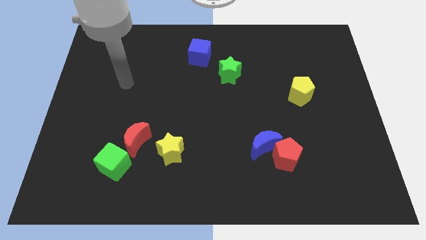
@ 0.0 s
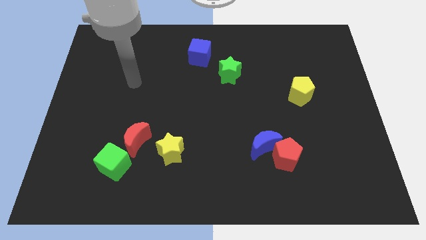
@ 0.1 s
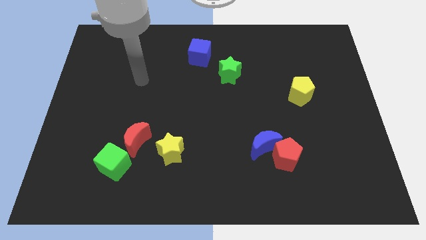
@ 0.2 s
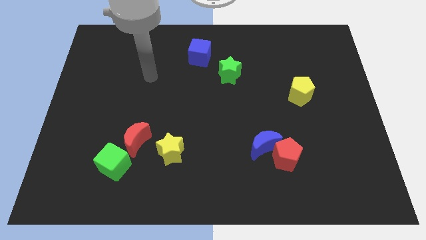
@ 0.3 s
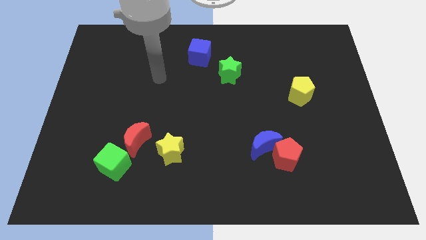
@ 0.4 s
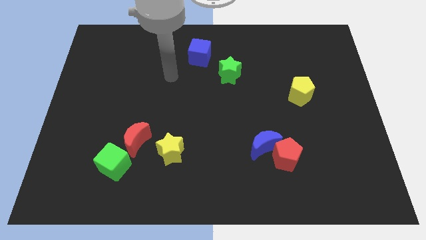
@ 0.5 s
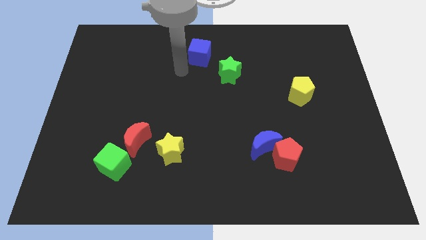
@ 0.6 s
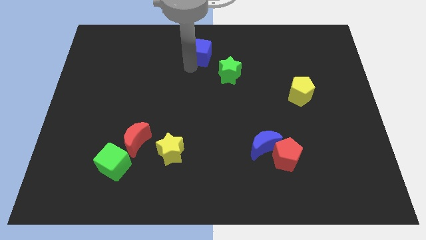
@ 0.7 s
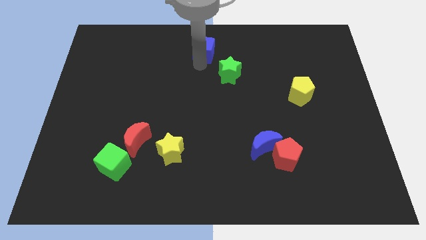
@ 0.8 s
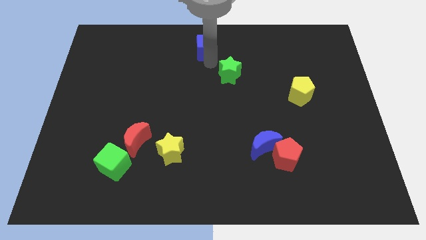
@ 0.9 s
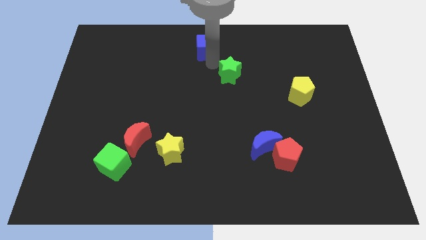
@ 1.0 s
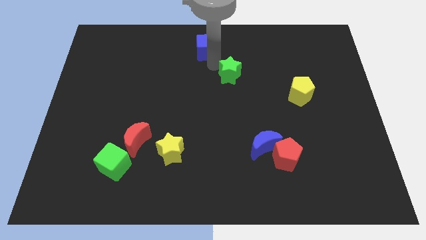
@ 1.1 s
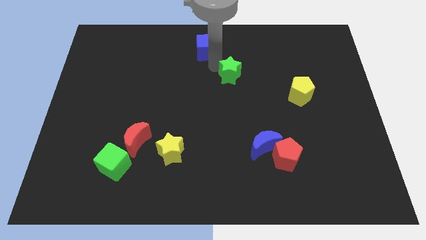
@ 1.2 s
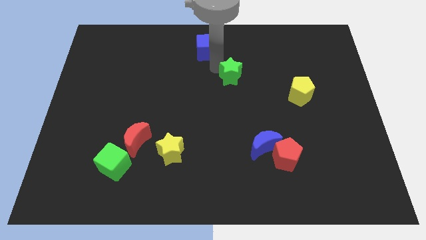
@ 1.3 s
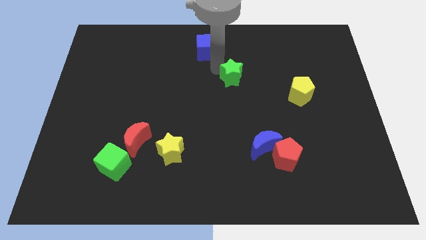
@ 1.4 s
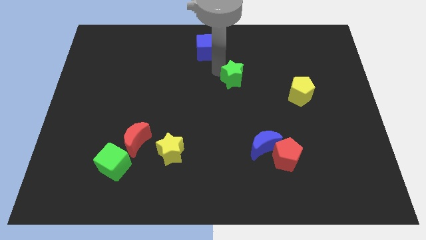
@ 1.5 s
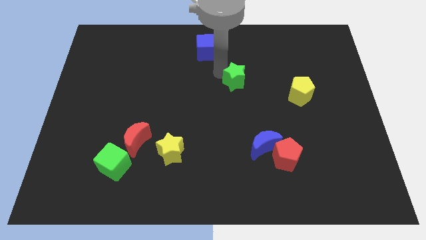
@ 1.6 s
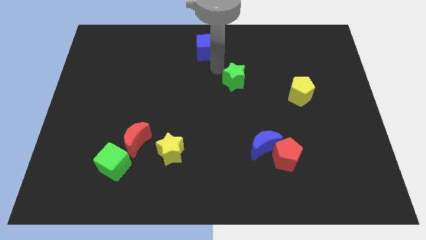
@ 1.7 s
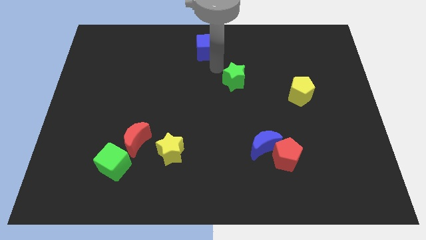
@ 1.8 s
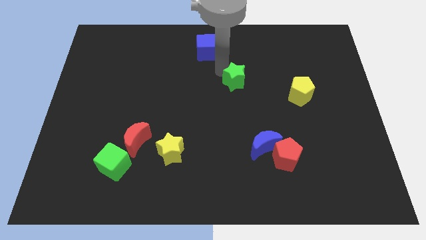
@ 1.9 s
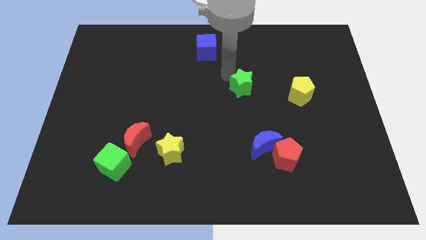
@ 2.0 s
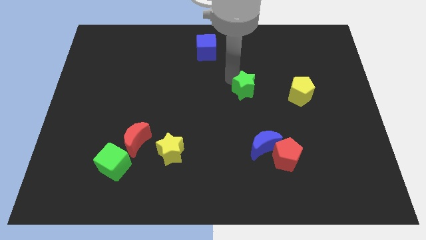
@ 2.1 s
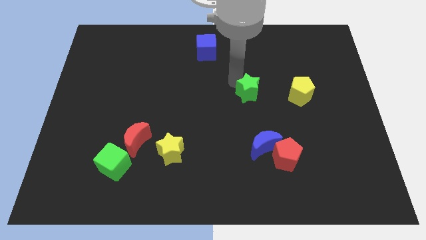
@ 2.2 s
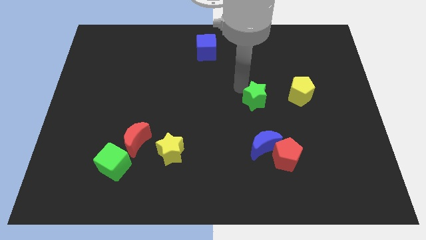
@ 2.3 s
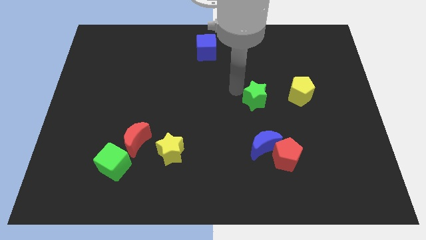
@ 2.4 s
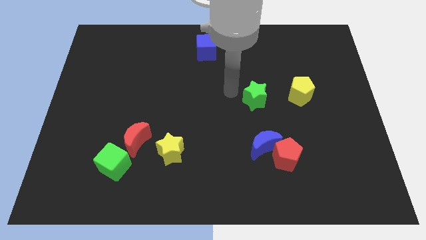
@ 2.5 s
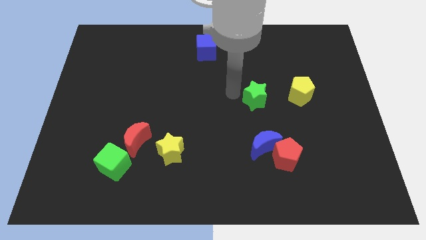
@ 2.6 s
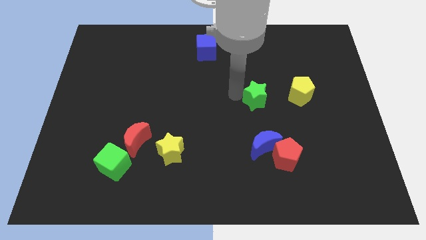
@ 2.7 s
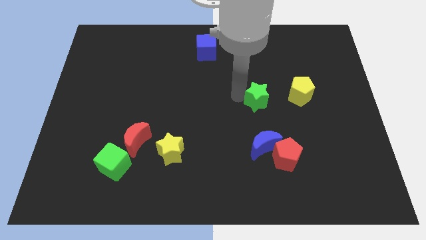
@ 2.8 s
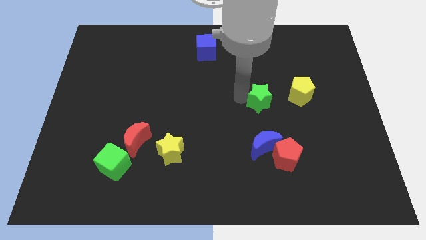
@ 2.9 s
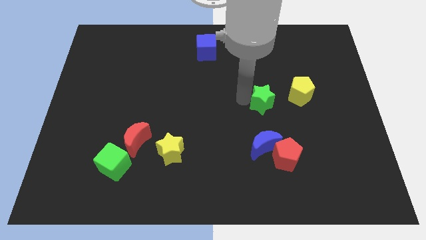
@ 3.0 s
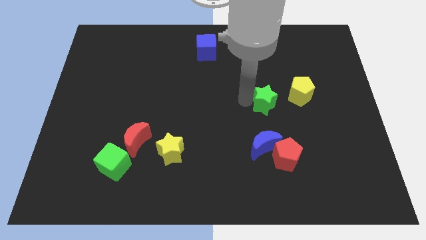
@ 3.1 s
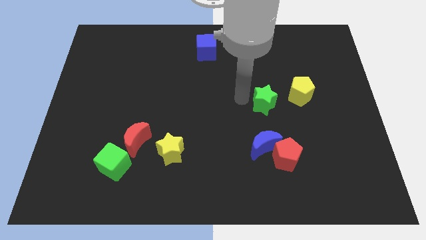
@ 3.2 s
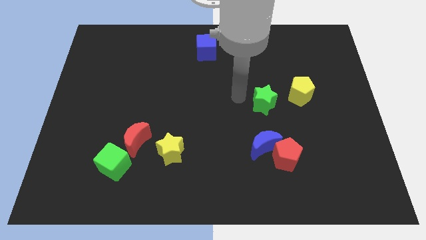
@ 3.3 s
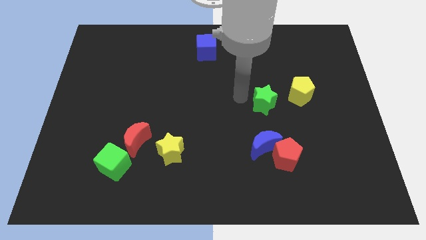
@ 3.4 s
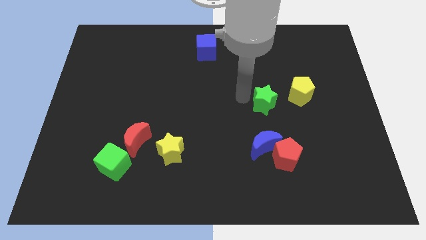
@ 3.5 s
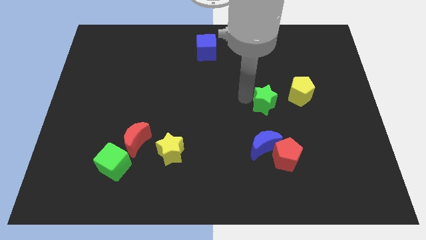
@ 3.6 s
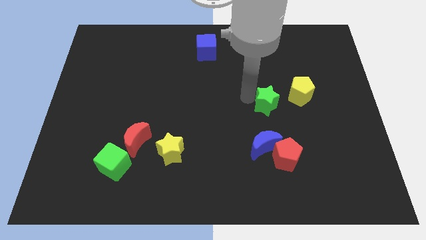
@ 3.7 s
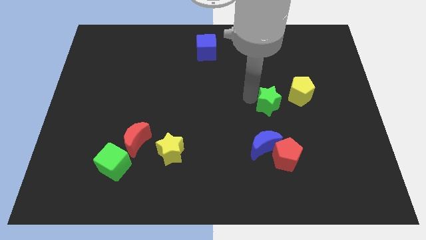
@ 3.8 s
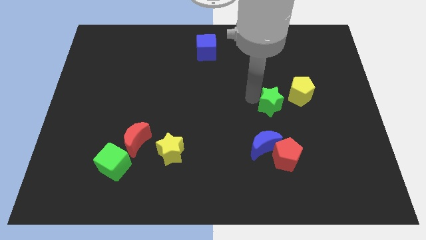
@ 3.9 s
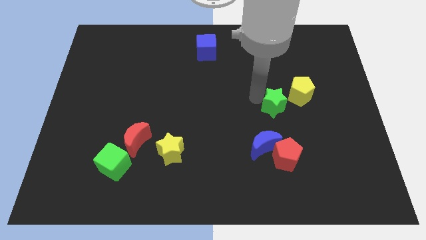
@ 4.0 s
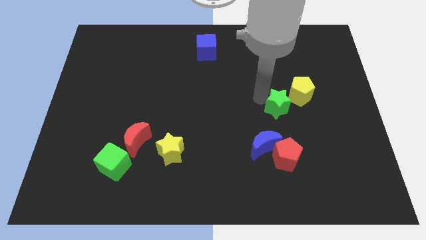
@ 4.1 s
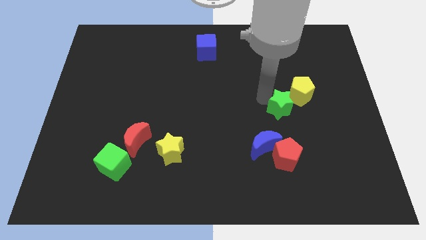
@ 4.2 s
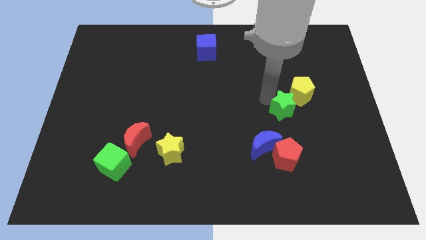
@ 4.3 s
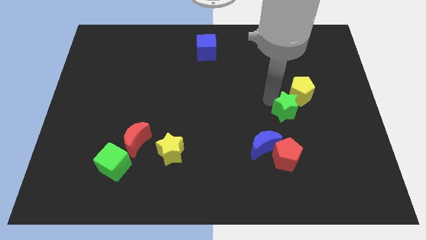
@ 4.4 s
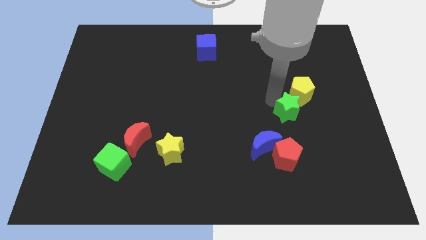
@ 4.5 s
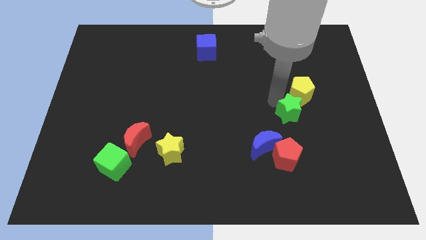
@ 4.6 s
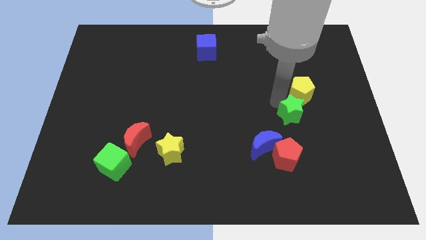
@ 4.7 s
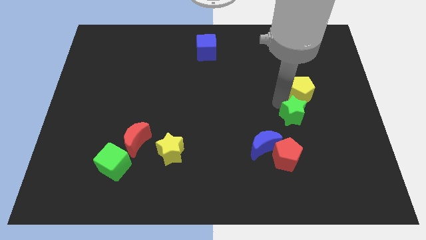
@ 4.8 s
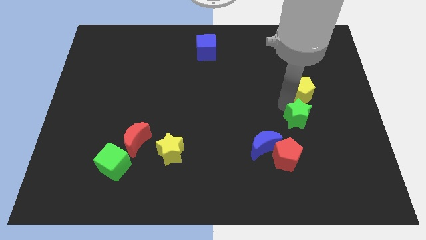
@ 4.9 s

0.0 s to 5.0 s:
move the green star diagonally downwards and right

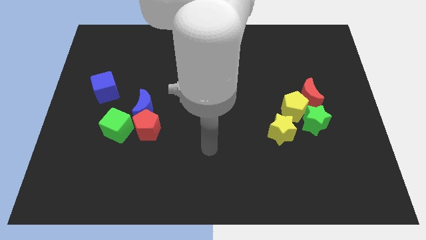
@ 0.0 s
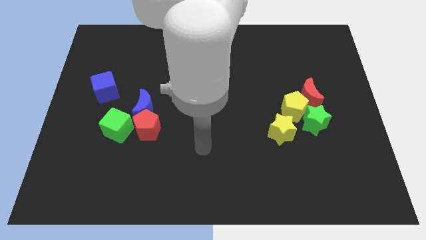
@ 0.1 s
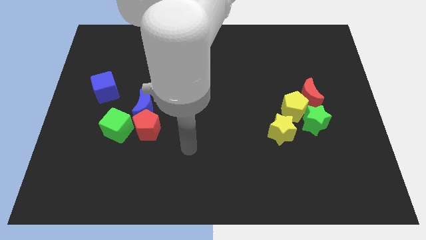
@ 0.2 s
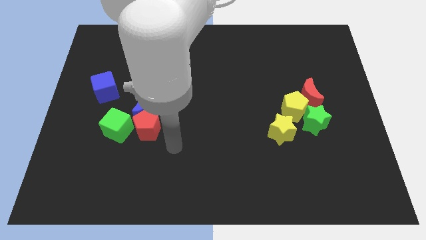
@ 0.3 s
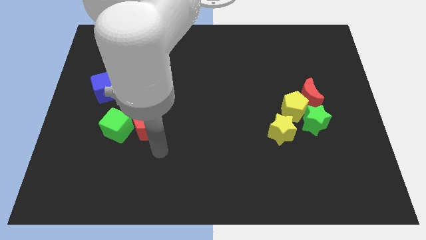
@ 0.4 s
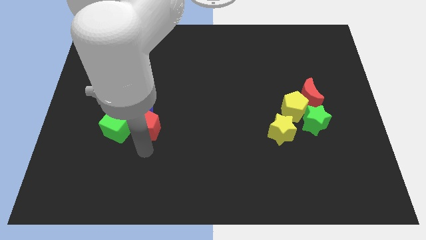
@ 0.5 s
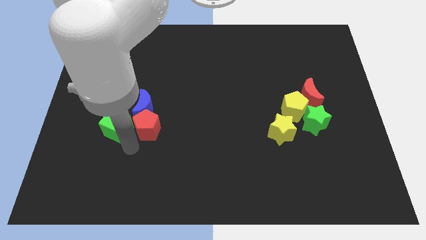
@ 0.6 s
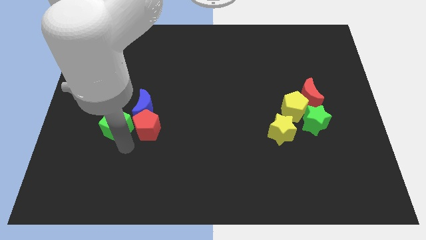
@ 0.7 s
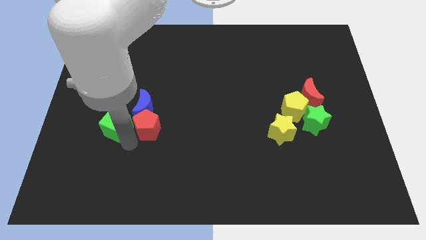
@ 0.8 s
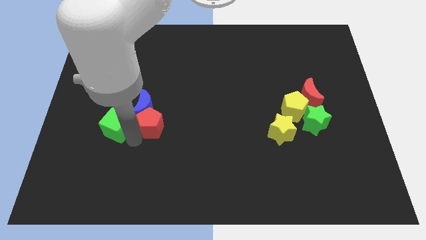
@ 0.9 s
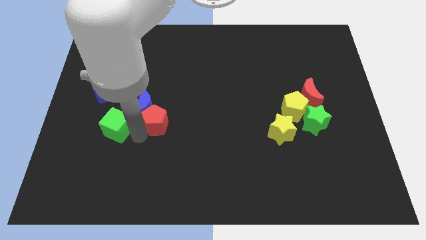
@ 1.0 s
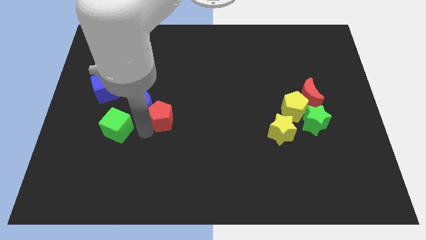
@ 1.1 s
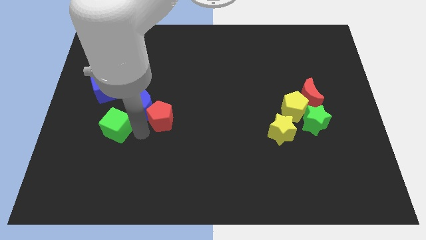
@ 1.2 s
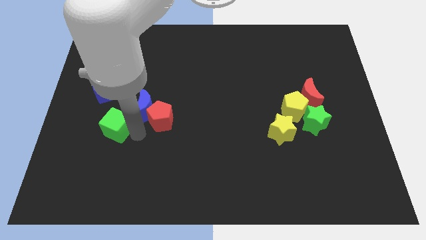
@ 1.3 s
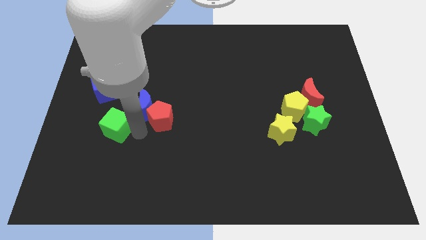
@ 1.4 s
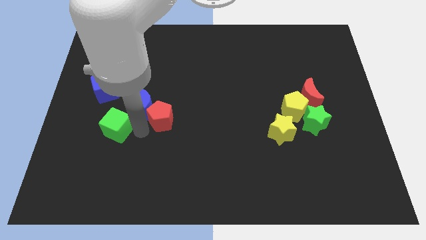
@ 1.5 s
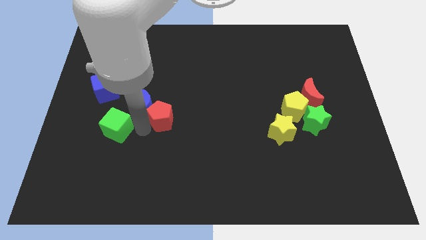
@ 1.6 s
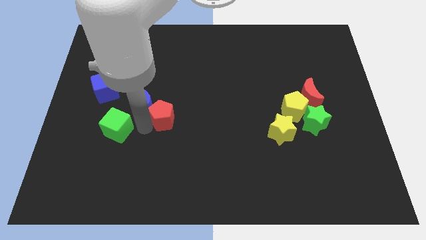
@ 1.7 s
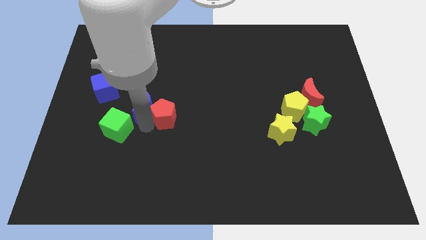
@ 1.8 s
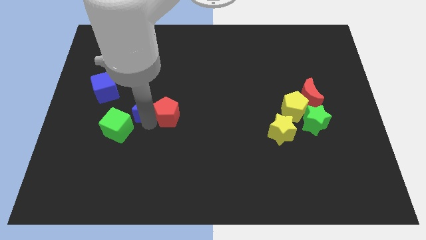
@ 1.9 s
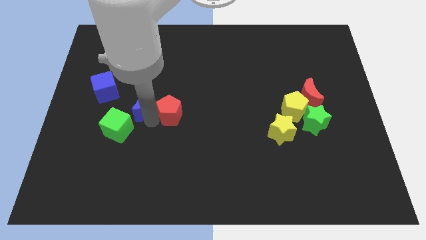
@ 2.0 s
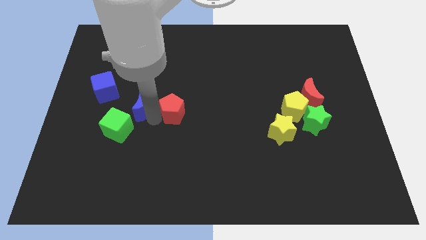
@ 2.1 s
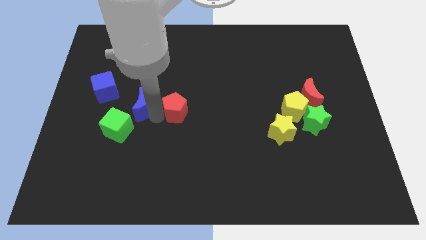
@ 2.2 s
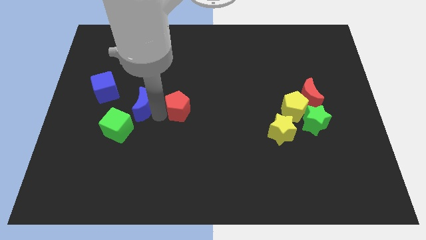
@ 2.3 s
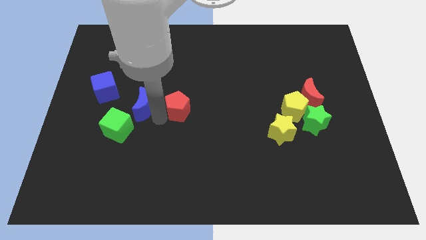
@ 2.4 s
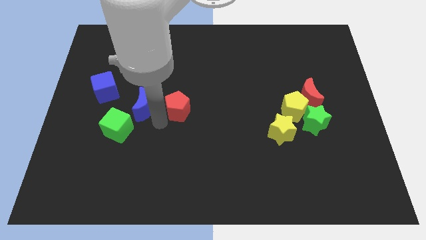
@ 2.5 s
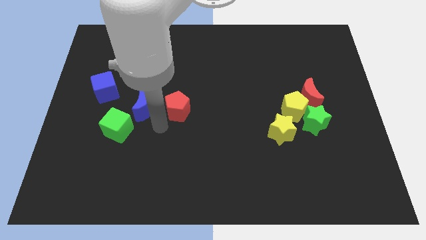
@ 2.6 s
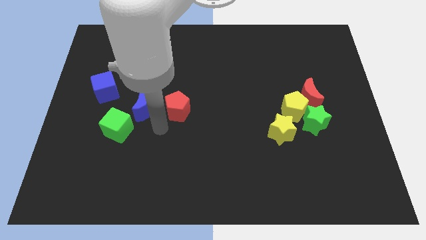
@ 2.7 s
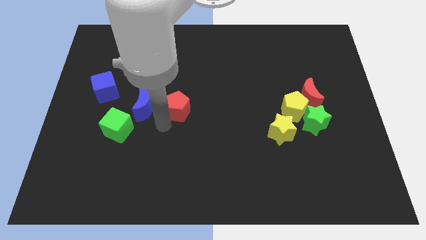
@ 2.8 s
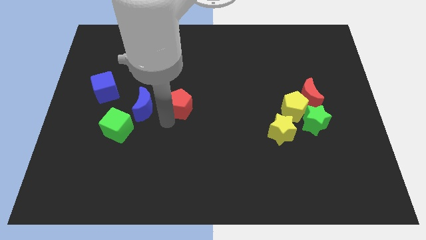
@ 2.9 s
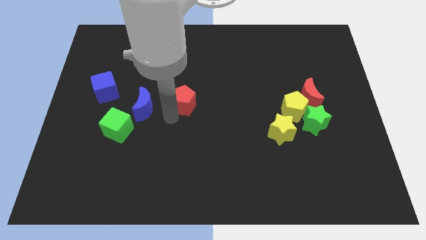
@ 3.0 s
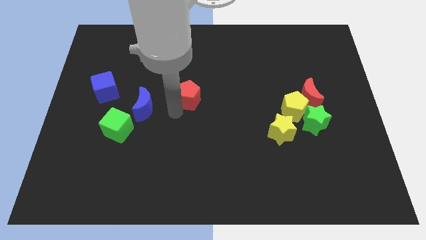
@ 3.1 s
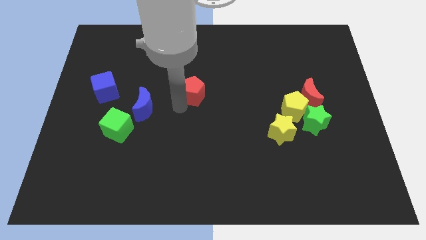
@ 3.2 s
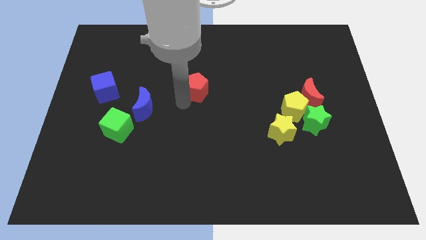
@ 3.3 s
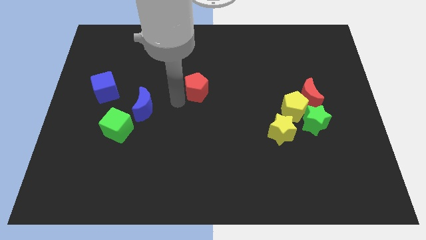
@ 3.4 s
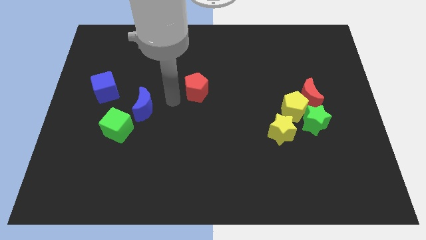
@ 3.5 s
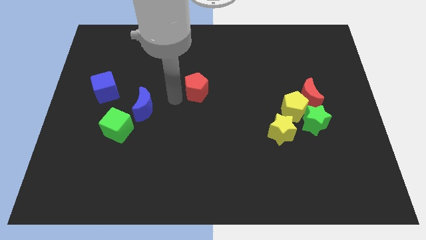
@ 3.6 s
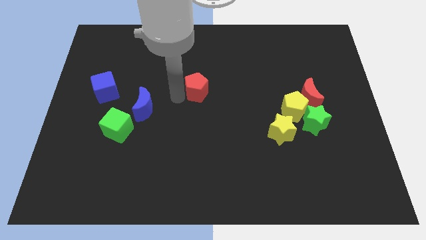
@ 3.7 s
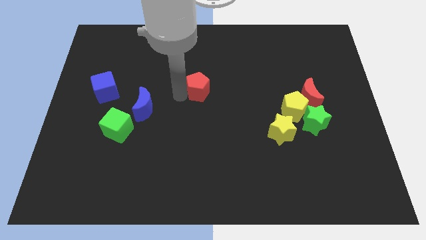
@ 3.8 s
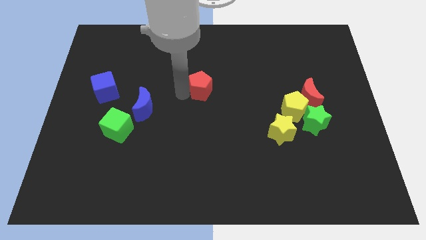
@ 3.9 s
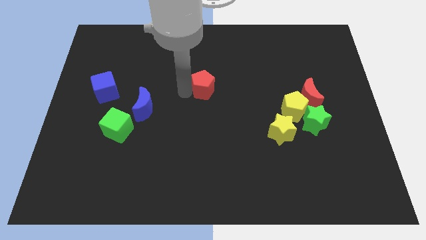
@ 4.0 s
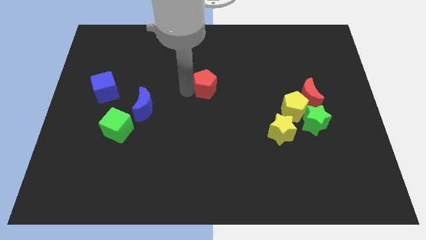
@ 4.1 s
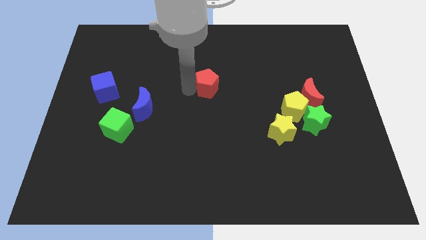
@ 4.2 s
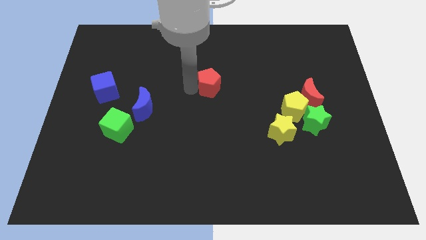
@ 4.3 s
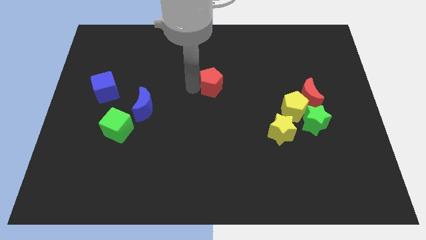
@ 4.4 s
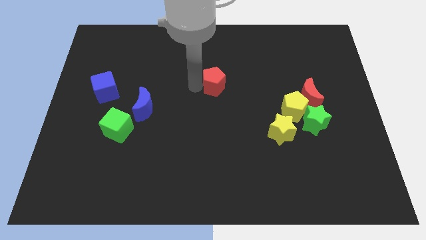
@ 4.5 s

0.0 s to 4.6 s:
slide the red pentagon up and right diagonally
